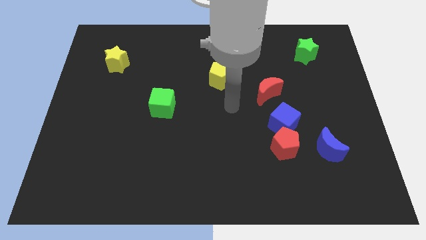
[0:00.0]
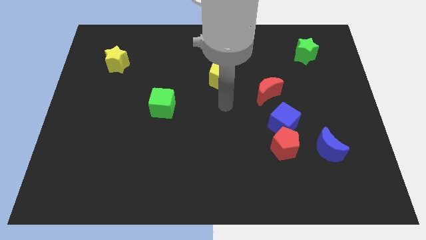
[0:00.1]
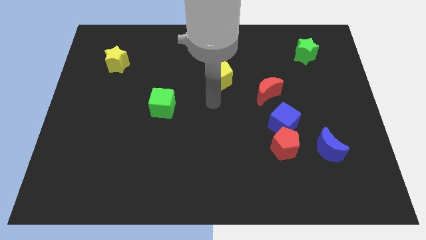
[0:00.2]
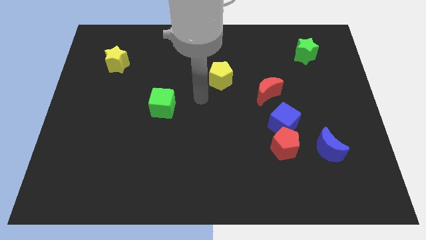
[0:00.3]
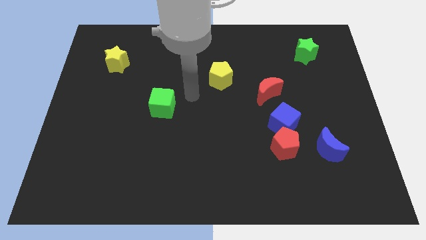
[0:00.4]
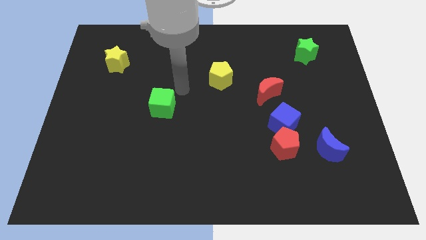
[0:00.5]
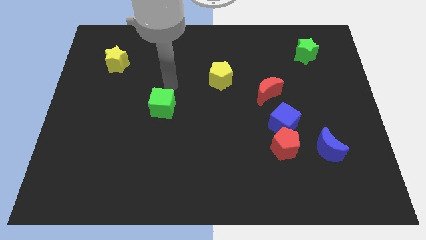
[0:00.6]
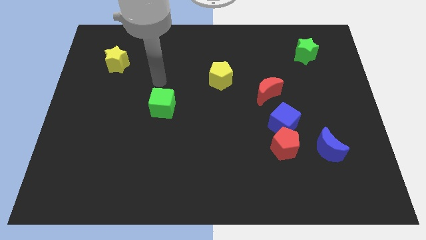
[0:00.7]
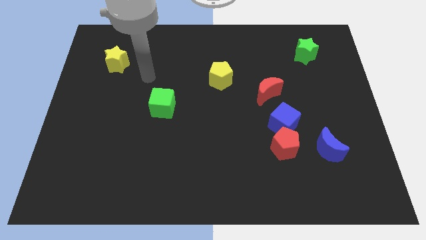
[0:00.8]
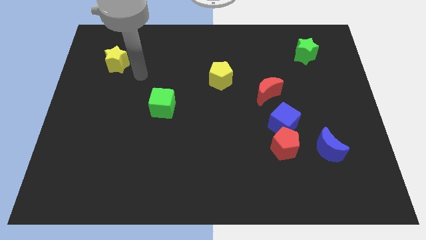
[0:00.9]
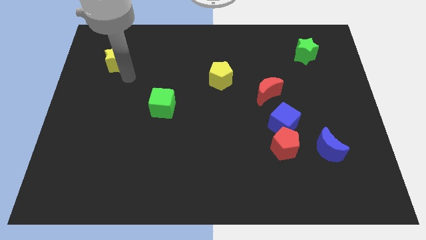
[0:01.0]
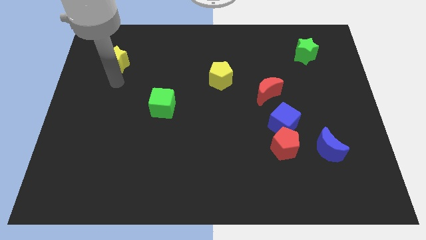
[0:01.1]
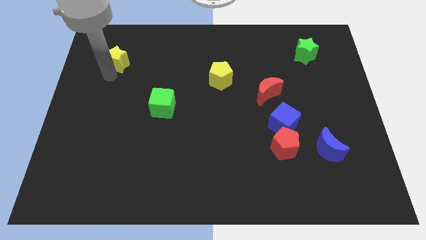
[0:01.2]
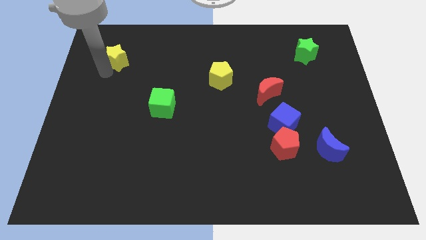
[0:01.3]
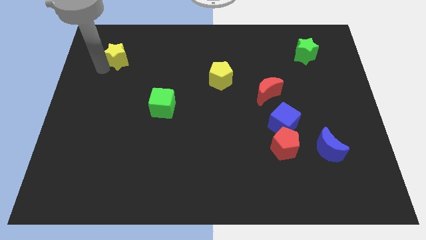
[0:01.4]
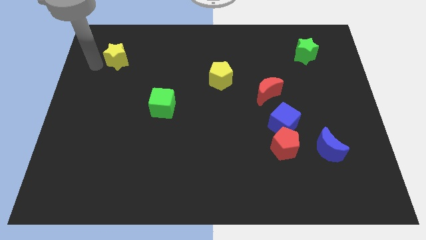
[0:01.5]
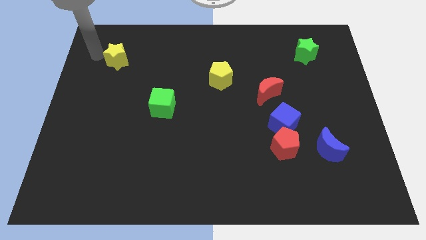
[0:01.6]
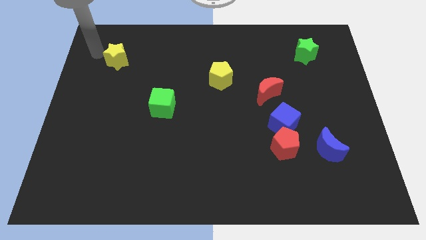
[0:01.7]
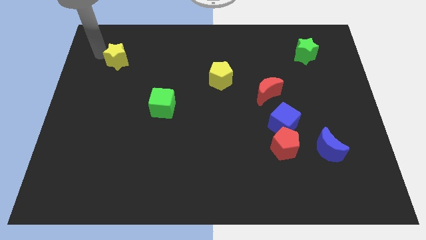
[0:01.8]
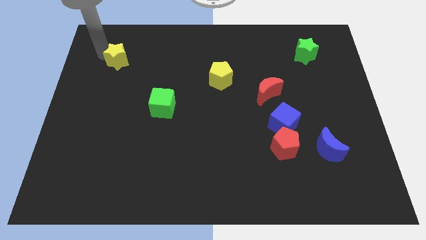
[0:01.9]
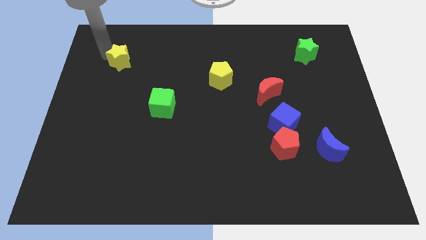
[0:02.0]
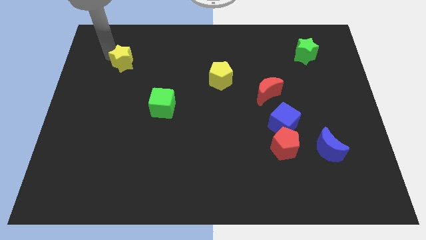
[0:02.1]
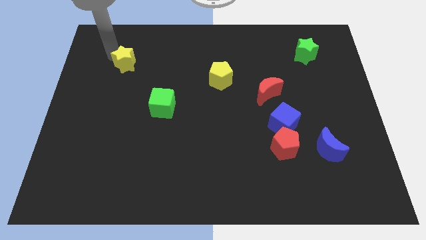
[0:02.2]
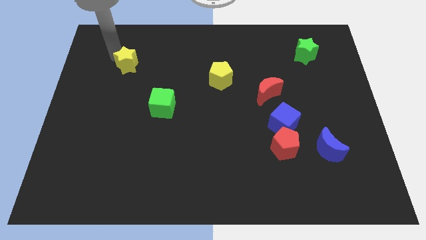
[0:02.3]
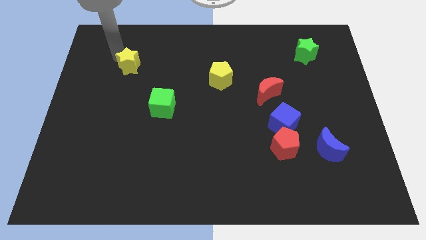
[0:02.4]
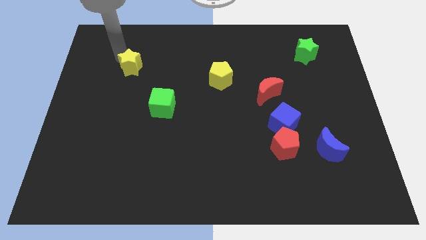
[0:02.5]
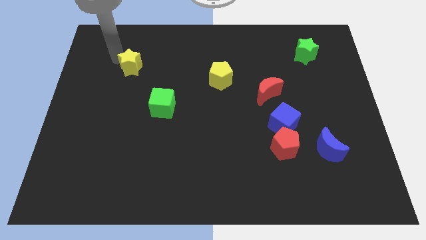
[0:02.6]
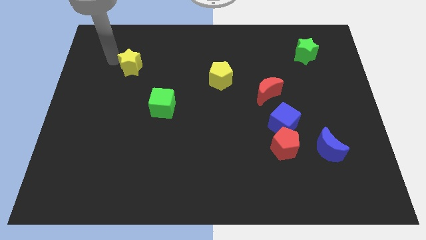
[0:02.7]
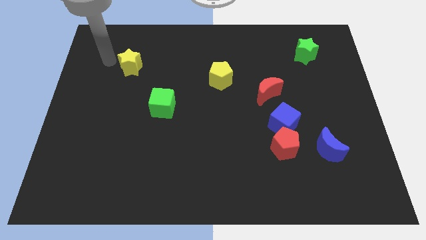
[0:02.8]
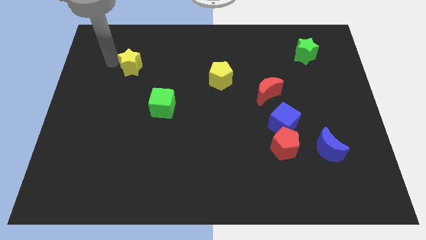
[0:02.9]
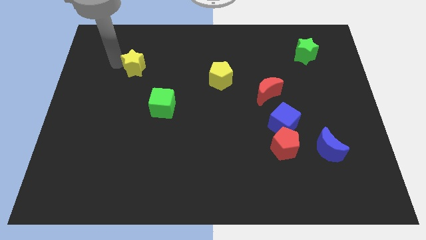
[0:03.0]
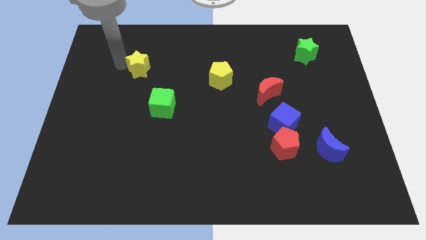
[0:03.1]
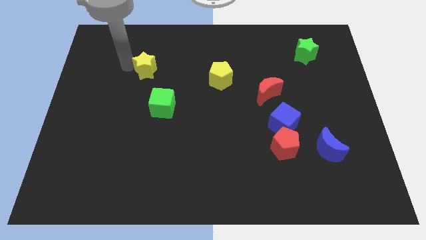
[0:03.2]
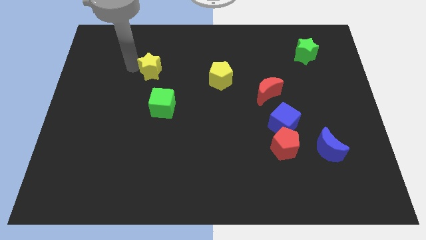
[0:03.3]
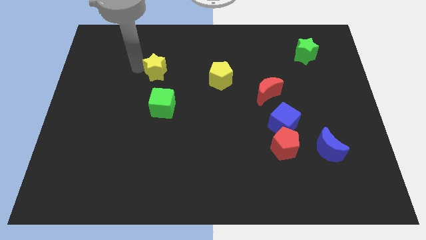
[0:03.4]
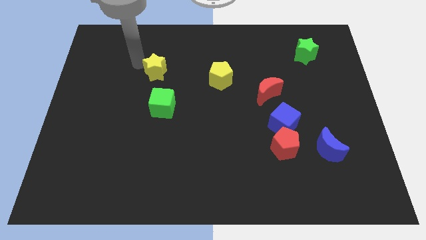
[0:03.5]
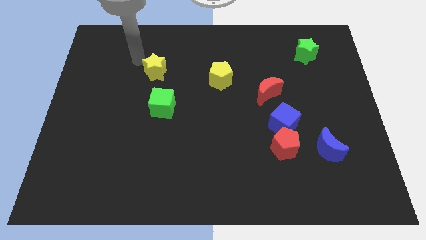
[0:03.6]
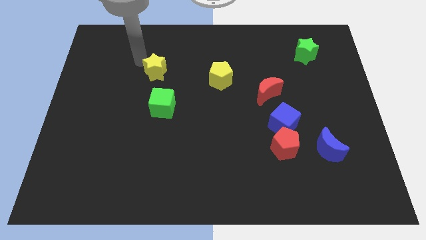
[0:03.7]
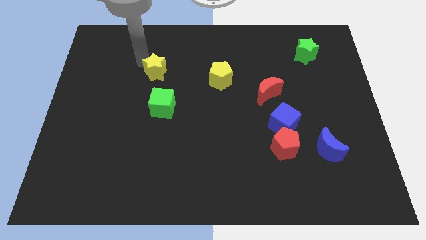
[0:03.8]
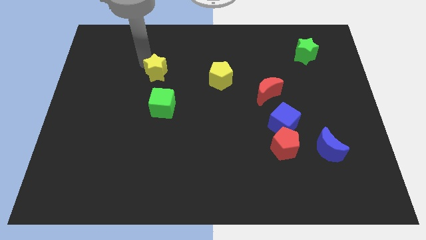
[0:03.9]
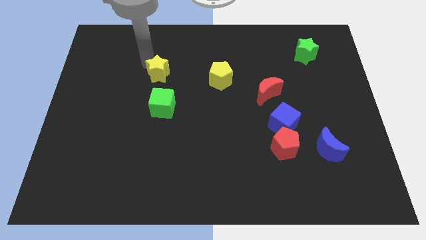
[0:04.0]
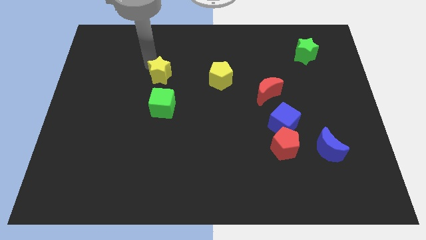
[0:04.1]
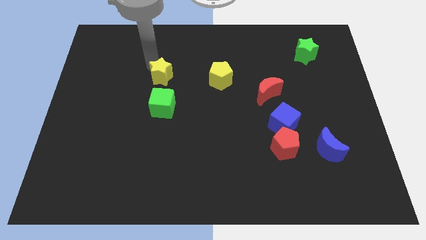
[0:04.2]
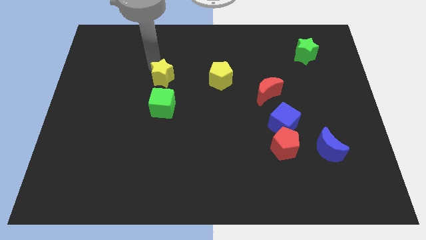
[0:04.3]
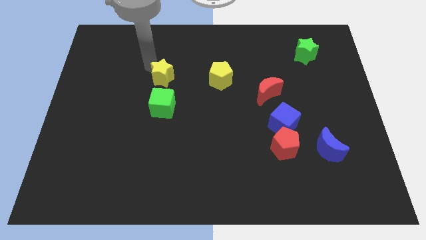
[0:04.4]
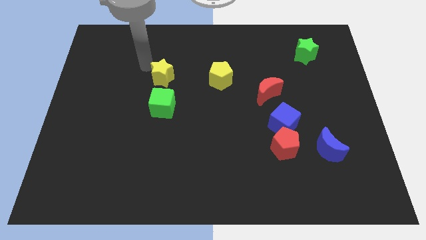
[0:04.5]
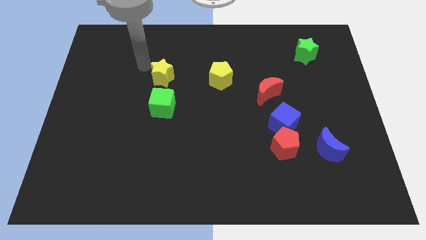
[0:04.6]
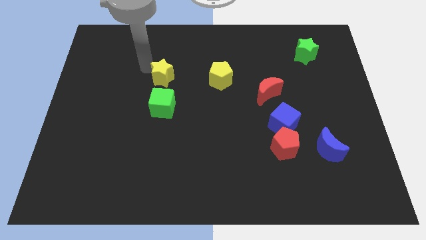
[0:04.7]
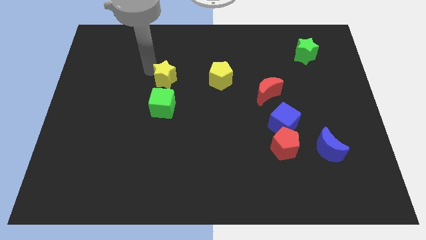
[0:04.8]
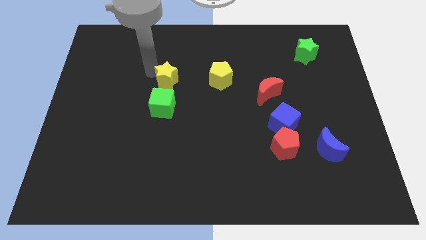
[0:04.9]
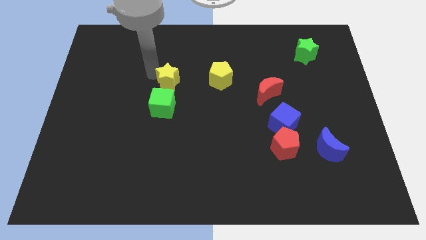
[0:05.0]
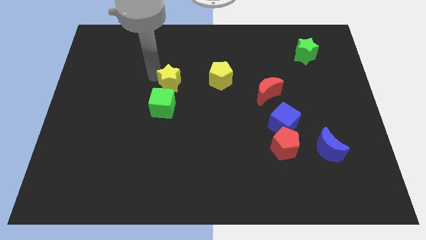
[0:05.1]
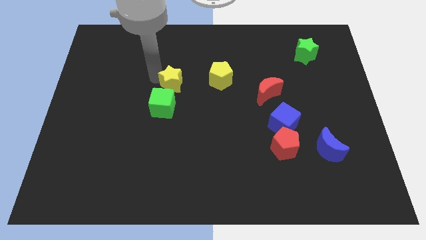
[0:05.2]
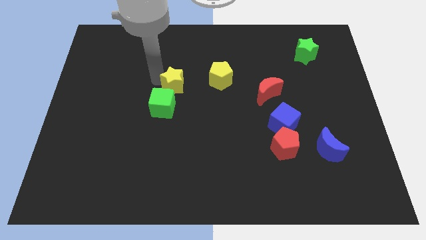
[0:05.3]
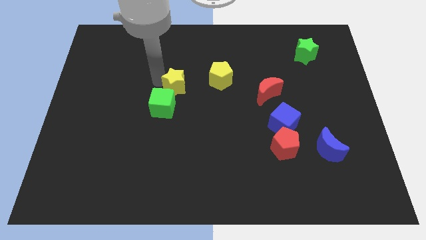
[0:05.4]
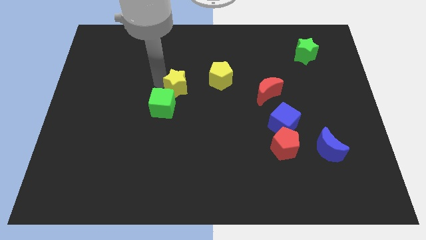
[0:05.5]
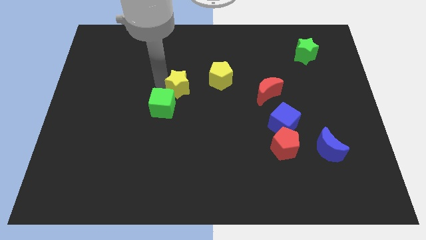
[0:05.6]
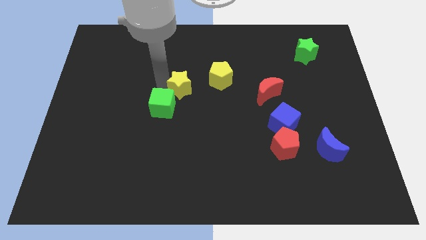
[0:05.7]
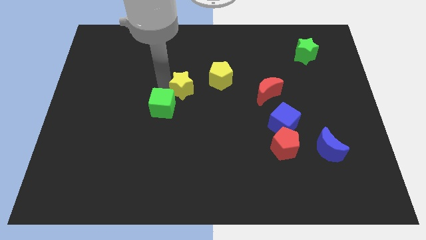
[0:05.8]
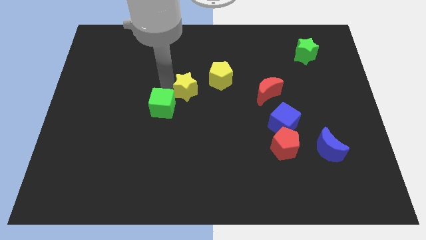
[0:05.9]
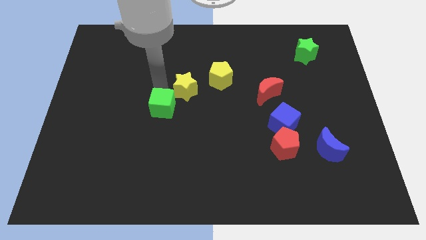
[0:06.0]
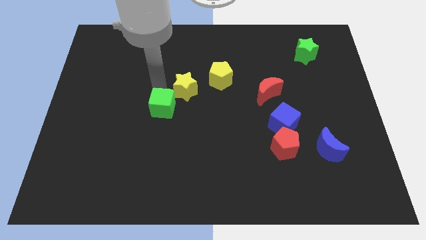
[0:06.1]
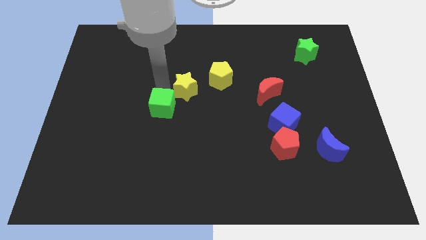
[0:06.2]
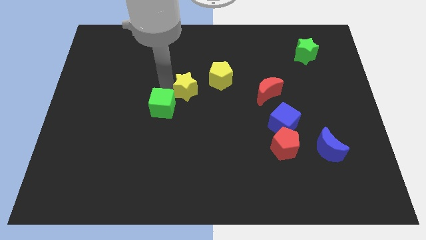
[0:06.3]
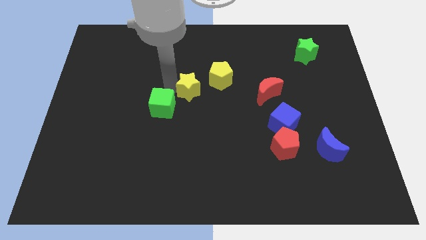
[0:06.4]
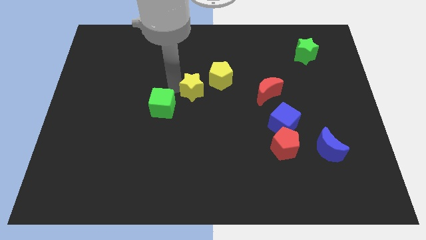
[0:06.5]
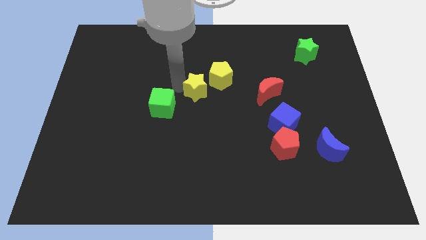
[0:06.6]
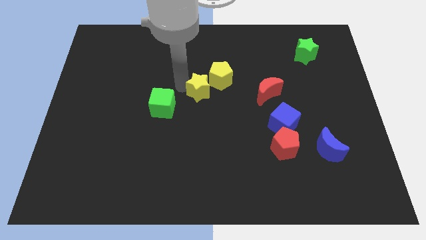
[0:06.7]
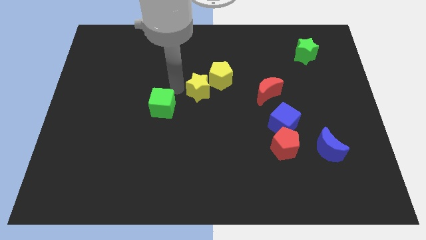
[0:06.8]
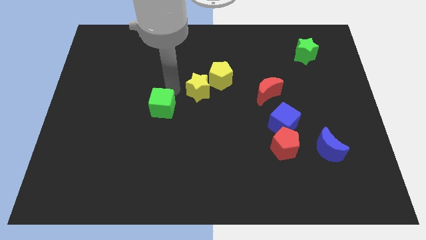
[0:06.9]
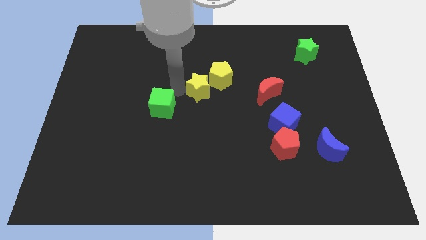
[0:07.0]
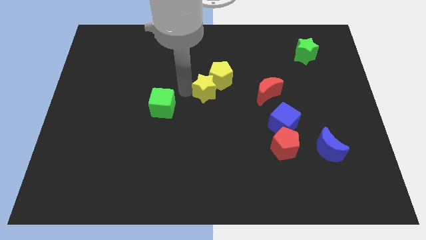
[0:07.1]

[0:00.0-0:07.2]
slide the yellow star to the left side of the red moon

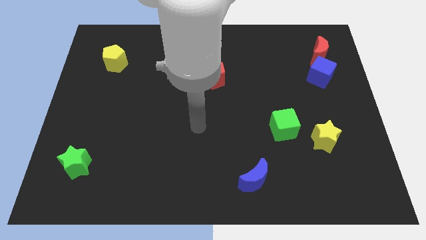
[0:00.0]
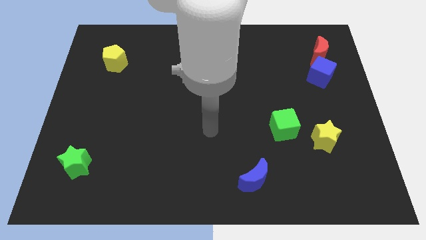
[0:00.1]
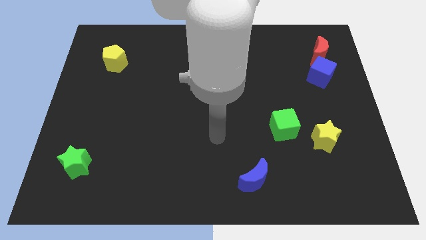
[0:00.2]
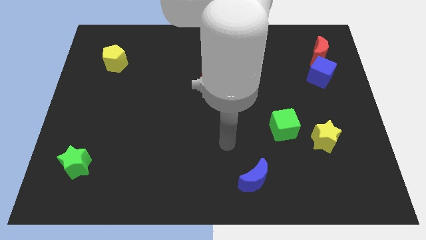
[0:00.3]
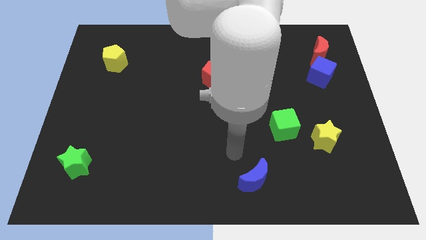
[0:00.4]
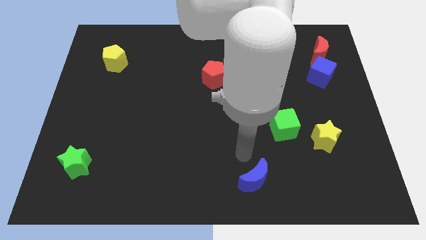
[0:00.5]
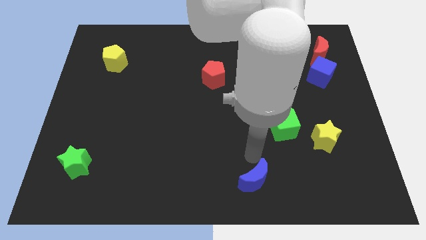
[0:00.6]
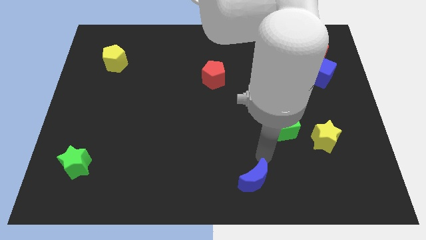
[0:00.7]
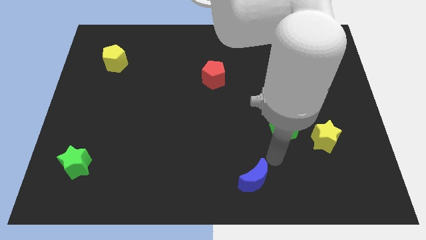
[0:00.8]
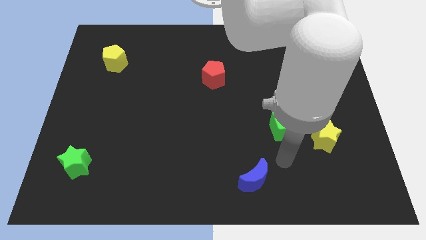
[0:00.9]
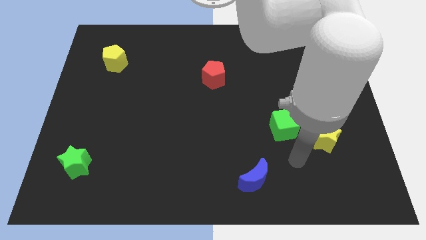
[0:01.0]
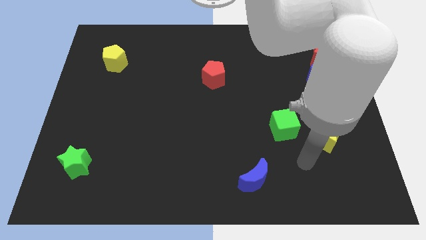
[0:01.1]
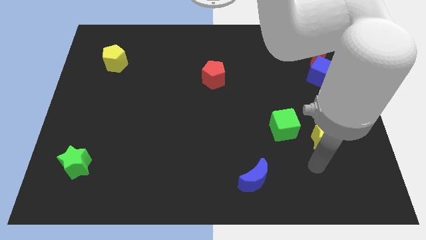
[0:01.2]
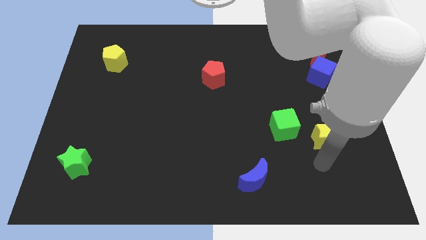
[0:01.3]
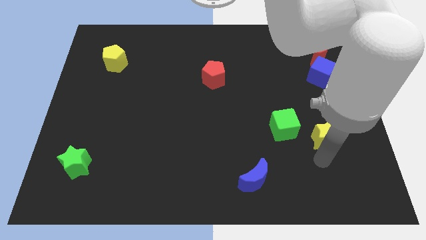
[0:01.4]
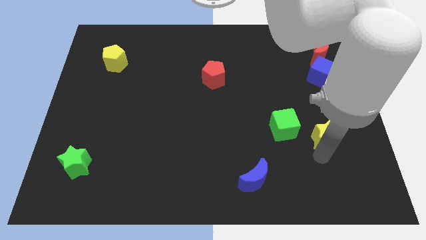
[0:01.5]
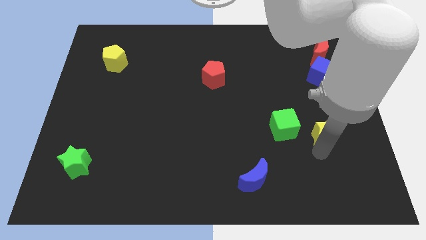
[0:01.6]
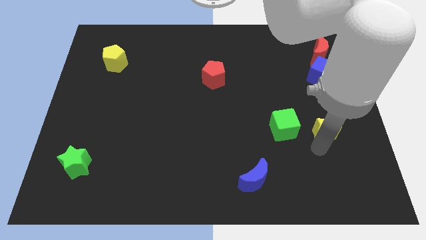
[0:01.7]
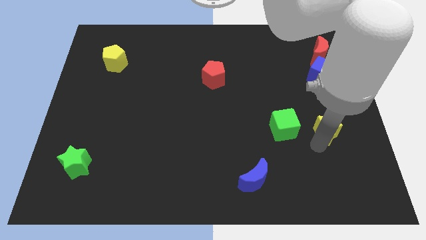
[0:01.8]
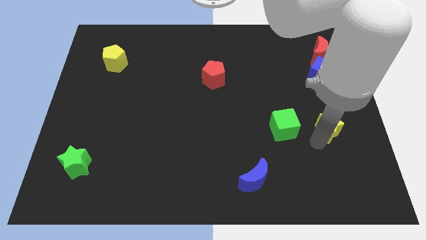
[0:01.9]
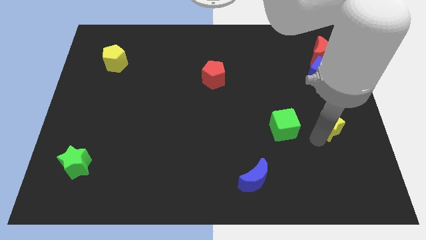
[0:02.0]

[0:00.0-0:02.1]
put the yellow star to the bottom of the blue cube
